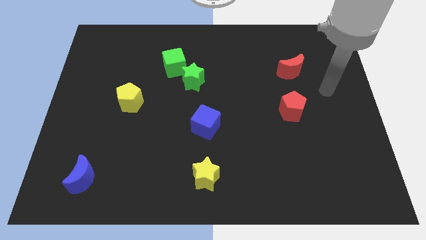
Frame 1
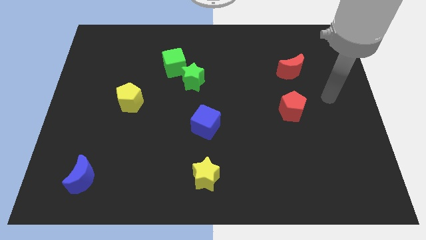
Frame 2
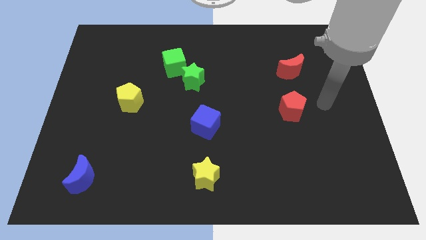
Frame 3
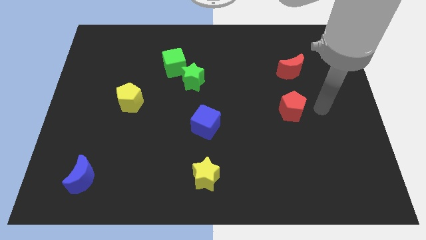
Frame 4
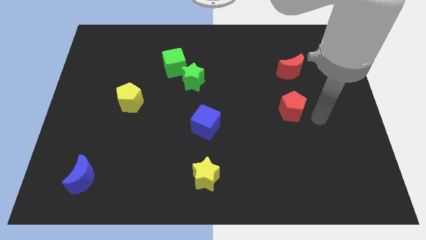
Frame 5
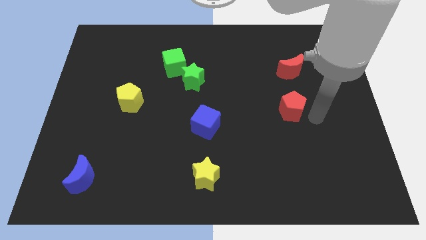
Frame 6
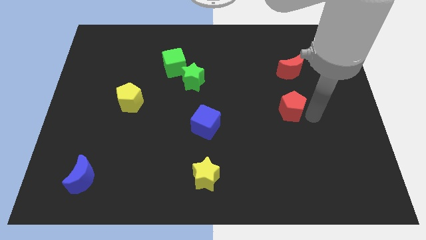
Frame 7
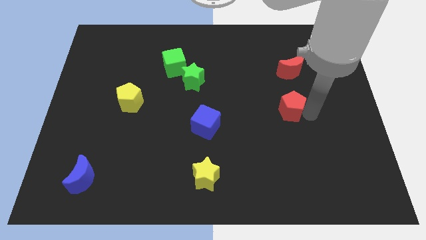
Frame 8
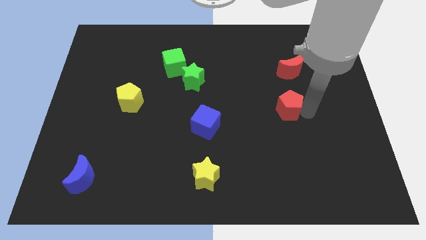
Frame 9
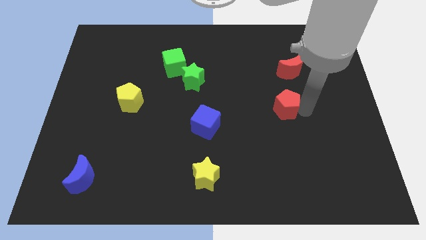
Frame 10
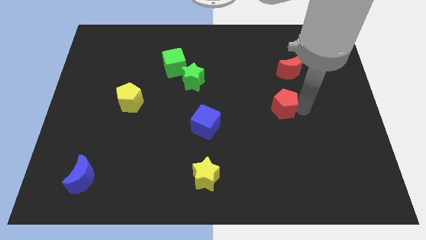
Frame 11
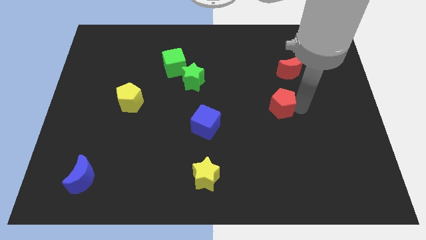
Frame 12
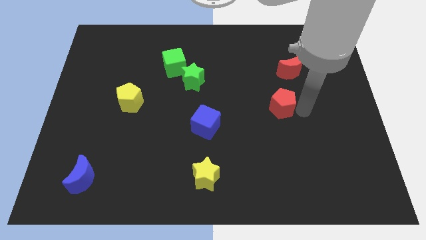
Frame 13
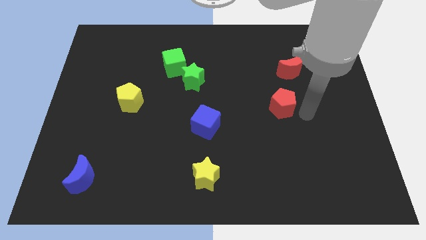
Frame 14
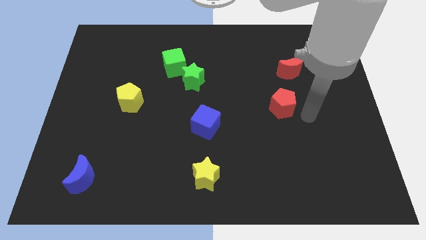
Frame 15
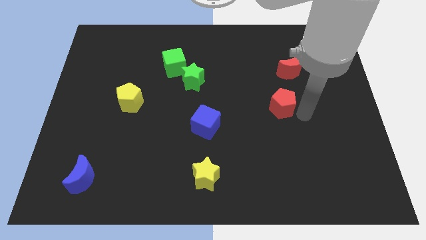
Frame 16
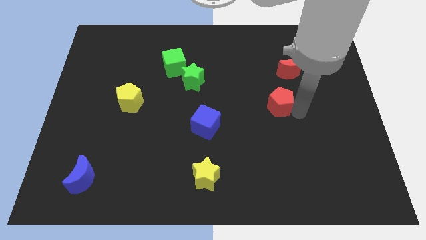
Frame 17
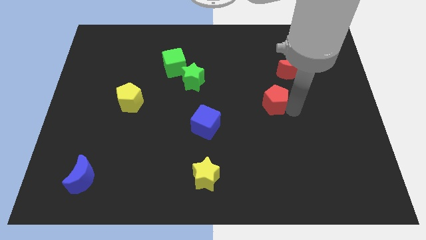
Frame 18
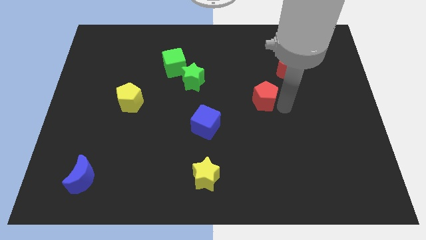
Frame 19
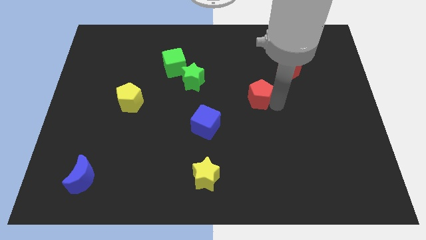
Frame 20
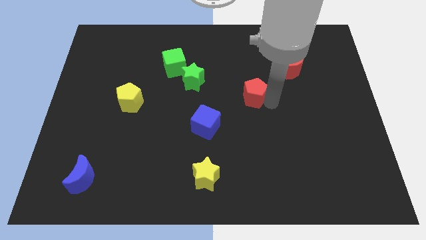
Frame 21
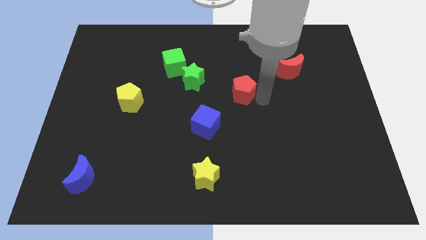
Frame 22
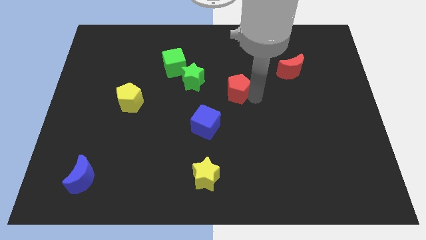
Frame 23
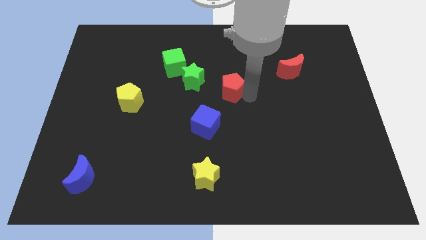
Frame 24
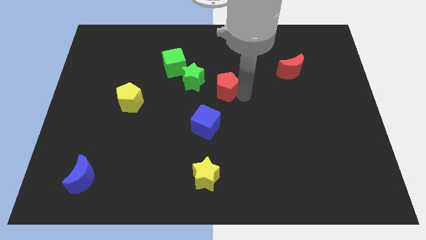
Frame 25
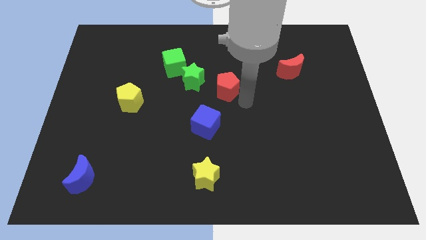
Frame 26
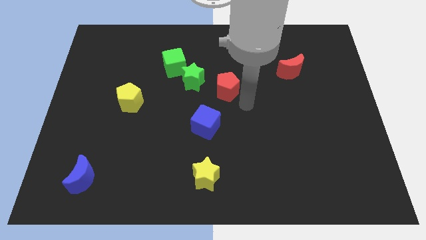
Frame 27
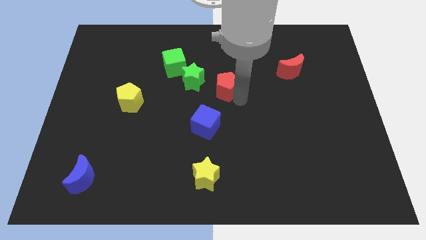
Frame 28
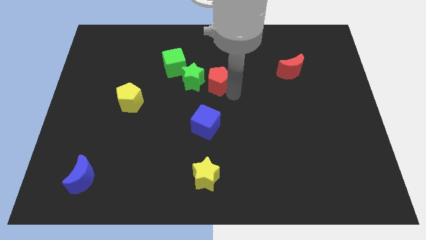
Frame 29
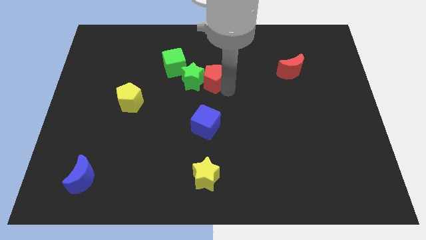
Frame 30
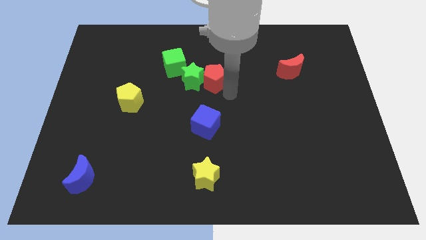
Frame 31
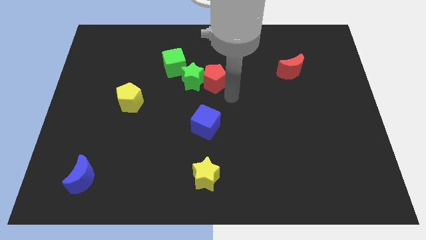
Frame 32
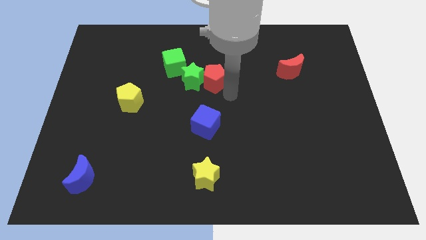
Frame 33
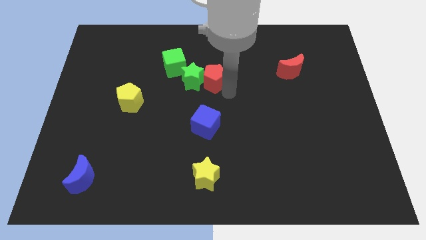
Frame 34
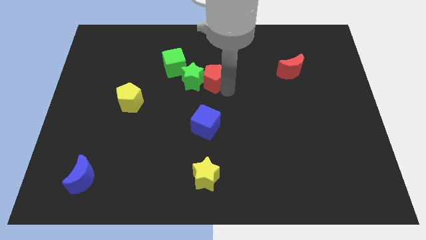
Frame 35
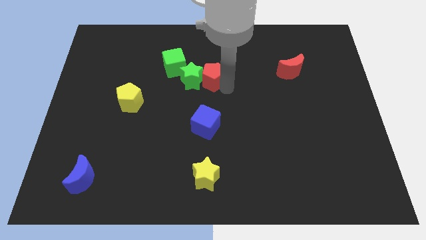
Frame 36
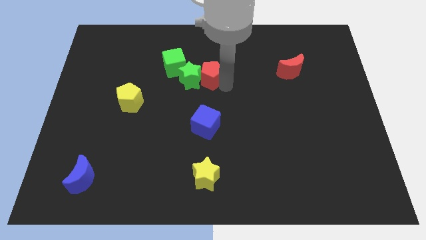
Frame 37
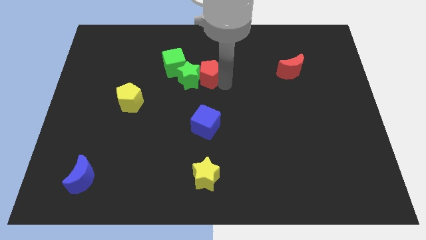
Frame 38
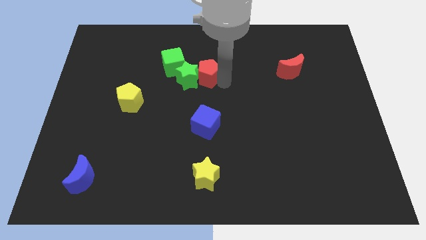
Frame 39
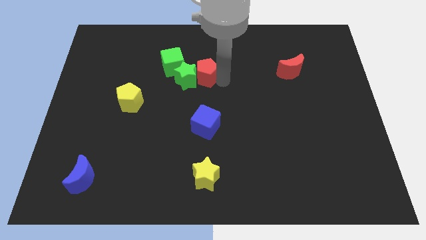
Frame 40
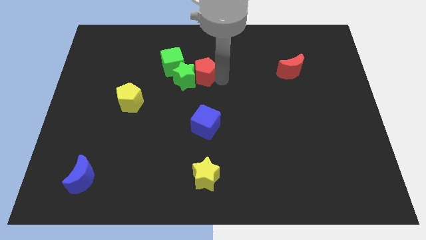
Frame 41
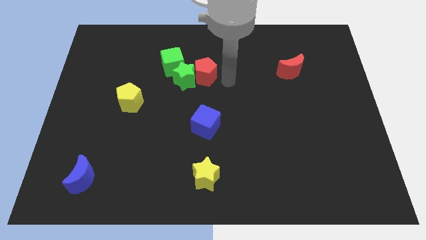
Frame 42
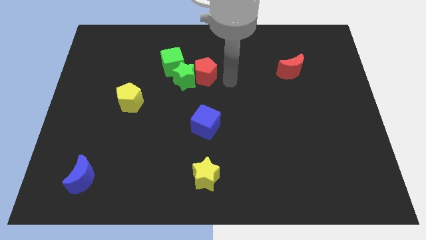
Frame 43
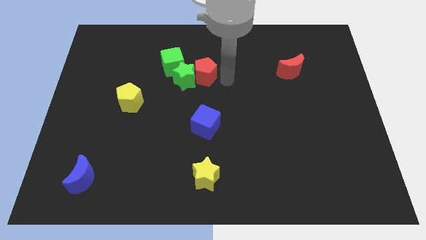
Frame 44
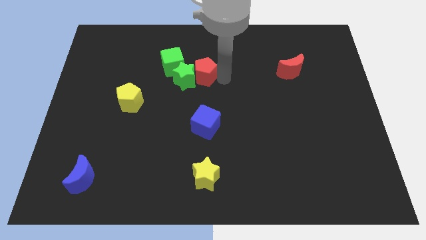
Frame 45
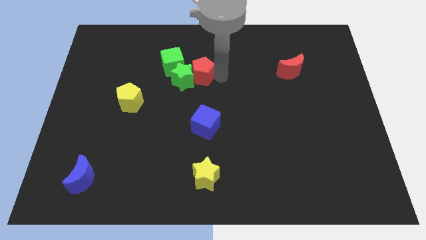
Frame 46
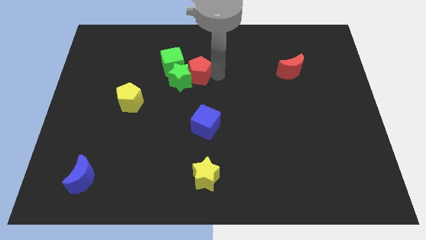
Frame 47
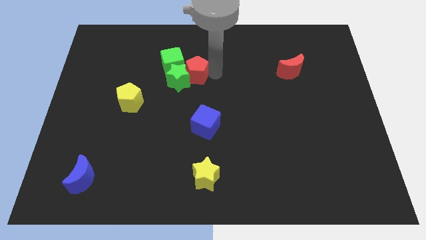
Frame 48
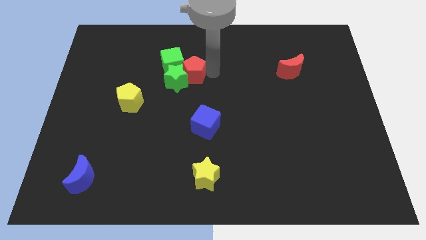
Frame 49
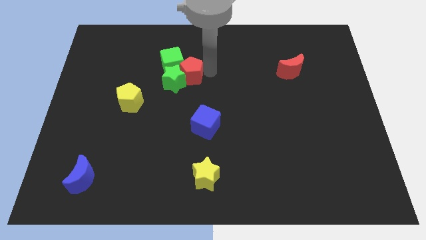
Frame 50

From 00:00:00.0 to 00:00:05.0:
move the red pentagon next to the green cube

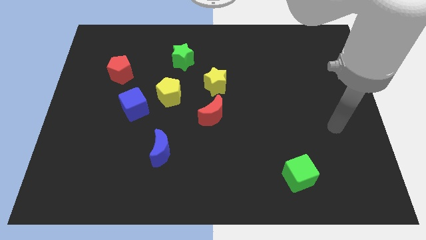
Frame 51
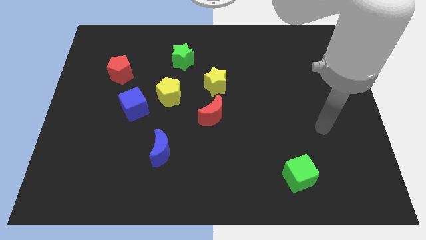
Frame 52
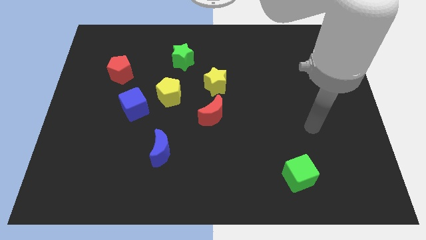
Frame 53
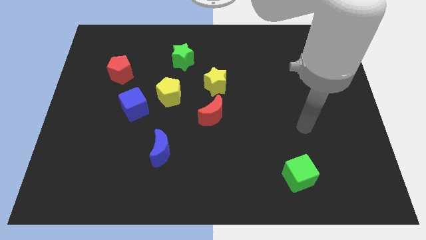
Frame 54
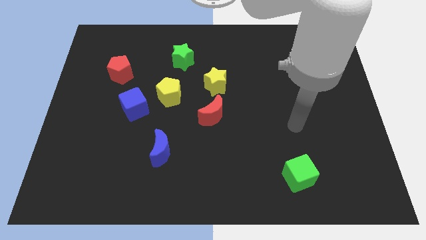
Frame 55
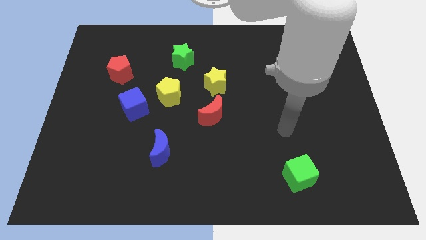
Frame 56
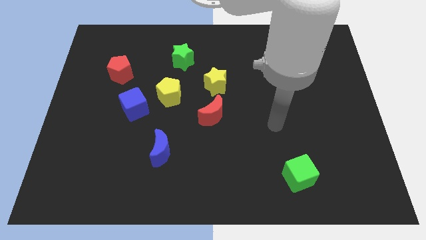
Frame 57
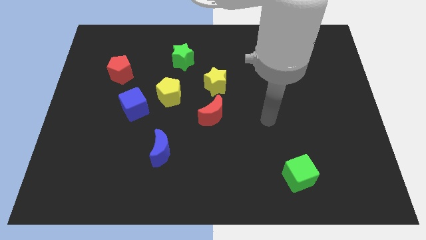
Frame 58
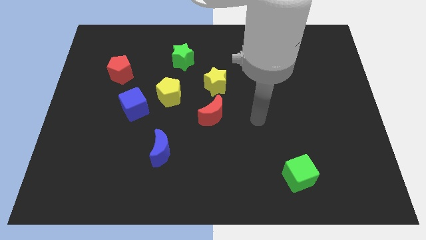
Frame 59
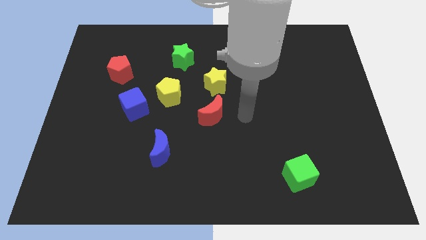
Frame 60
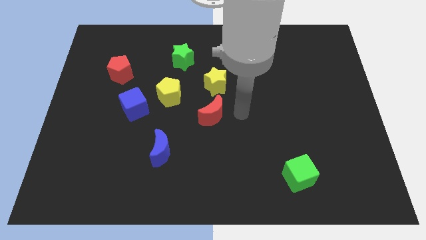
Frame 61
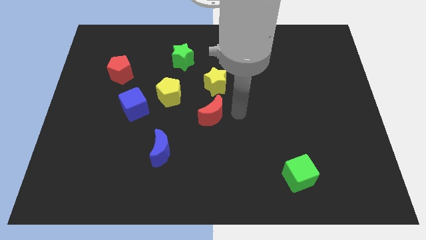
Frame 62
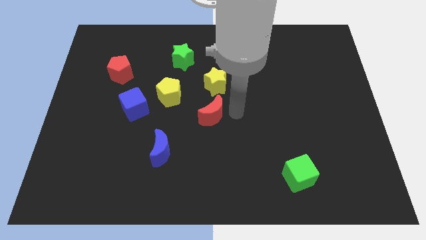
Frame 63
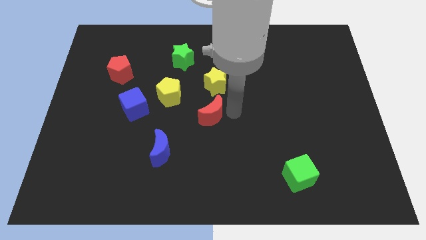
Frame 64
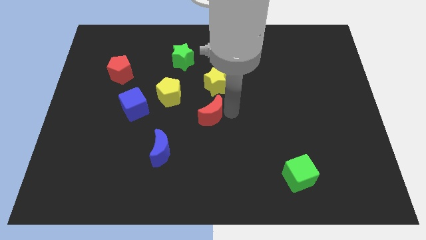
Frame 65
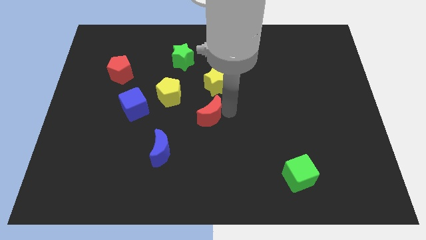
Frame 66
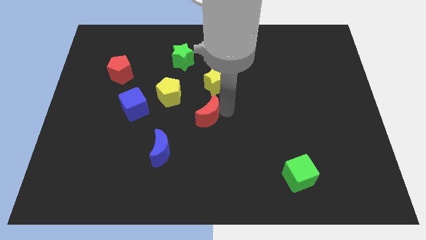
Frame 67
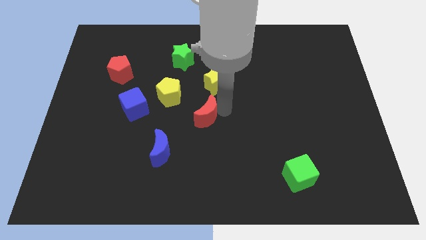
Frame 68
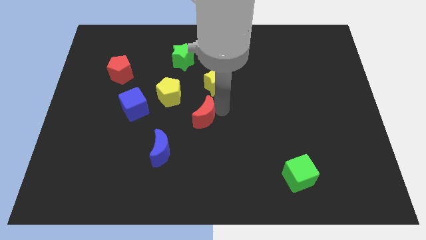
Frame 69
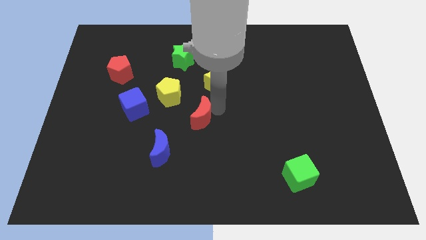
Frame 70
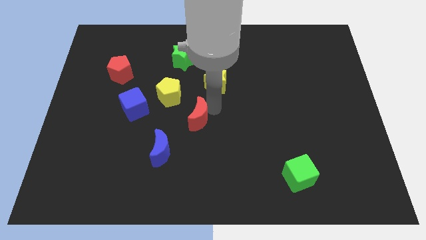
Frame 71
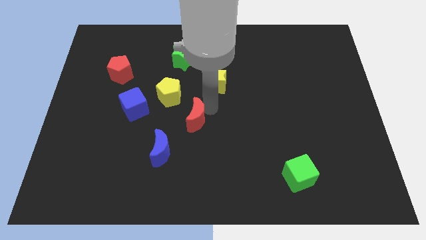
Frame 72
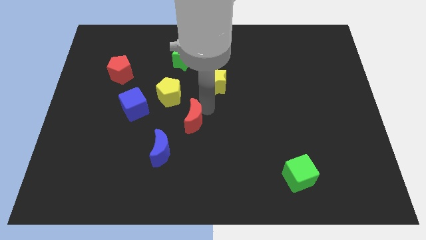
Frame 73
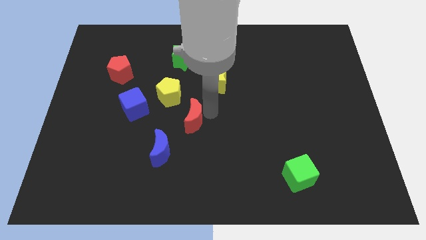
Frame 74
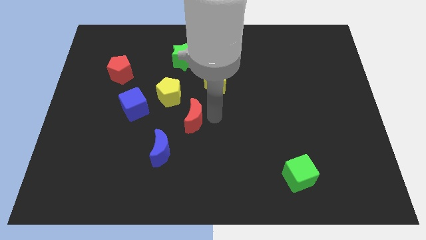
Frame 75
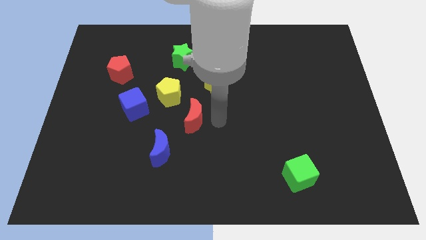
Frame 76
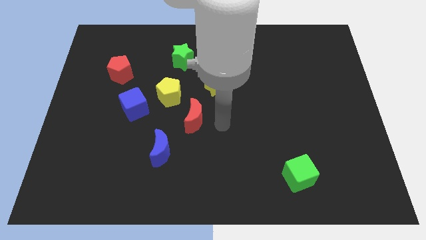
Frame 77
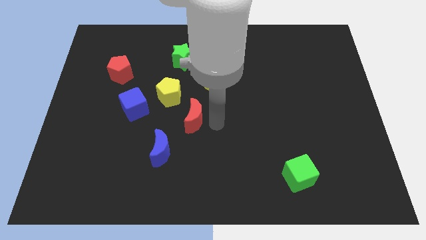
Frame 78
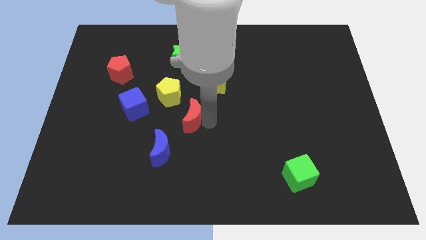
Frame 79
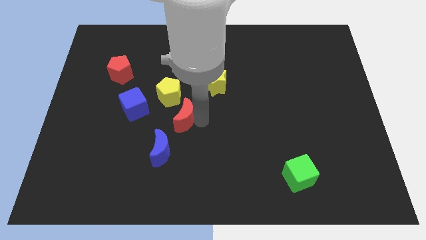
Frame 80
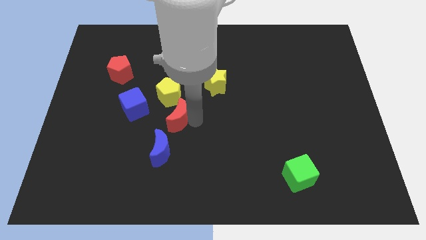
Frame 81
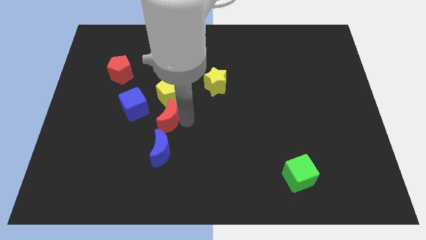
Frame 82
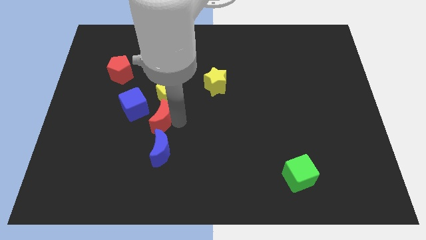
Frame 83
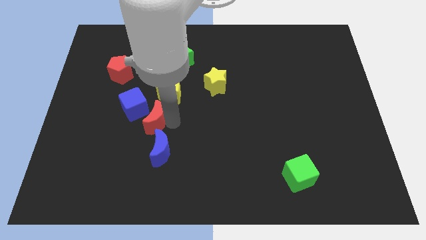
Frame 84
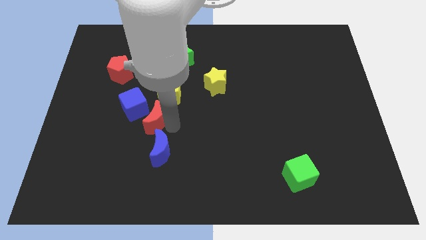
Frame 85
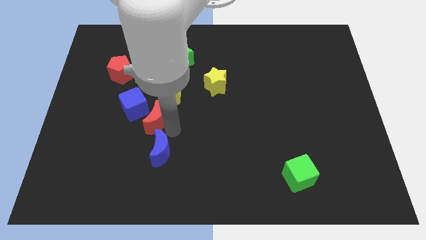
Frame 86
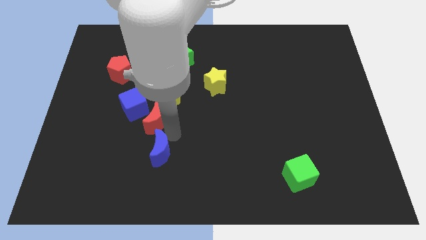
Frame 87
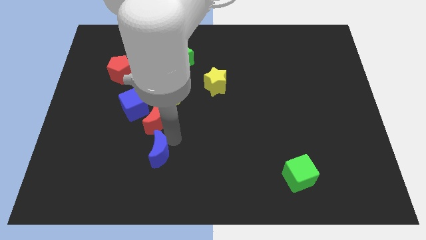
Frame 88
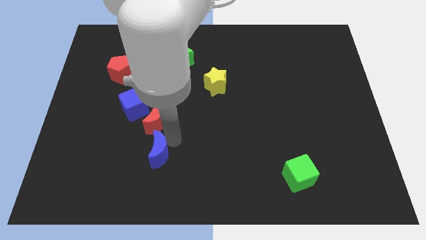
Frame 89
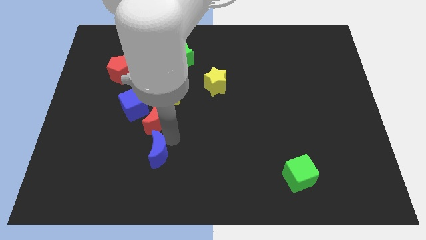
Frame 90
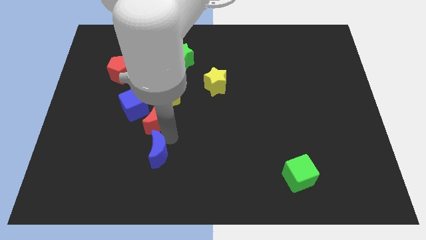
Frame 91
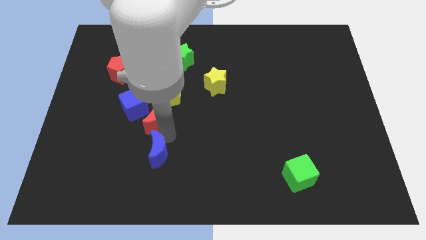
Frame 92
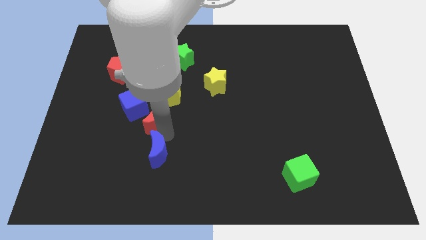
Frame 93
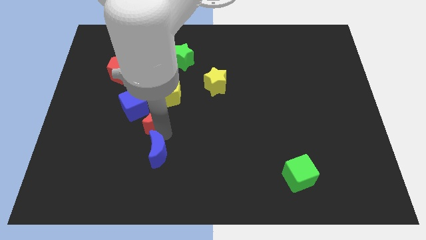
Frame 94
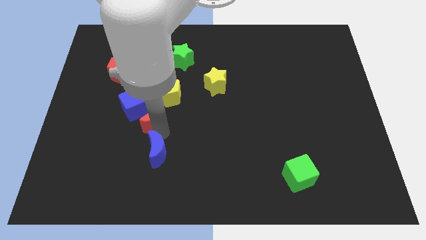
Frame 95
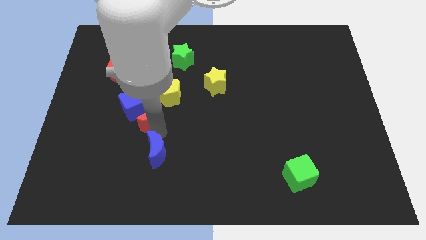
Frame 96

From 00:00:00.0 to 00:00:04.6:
slide the red moon towards the blue cube
